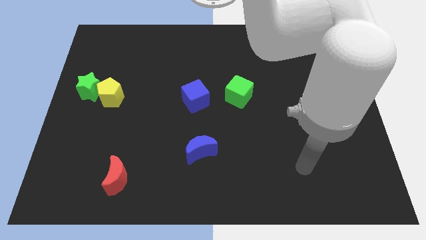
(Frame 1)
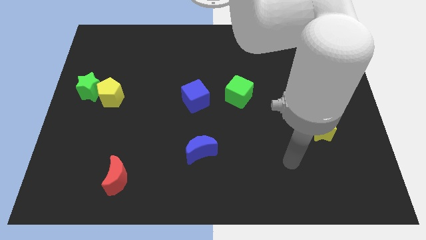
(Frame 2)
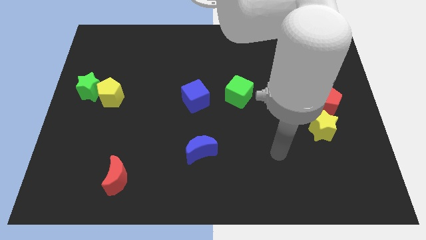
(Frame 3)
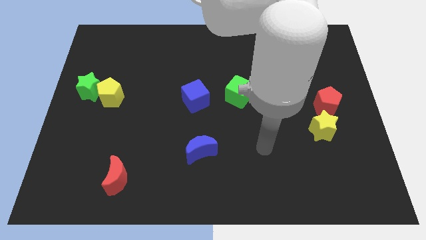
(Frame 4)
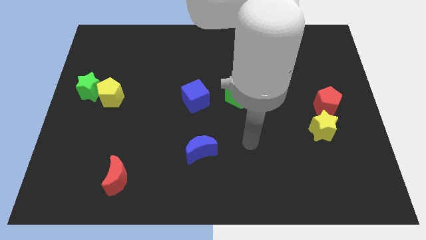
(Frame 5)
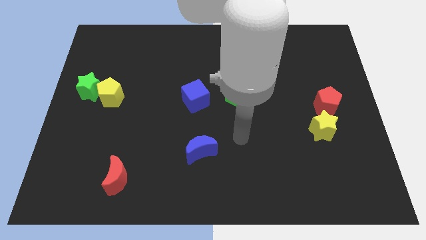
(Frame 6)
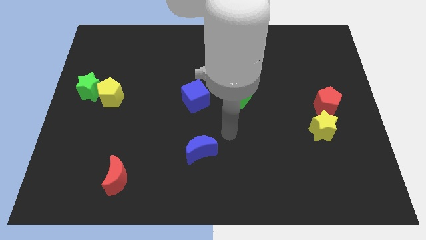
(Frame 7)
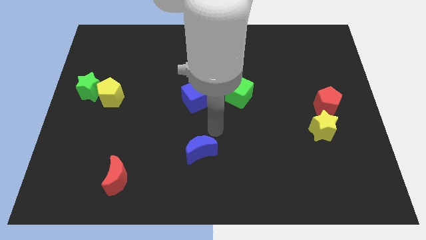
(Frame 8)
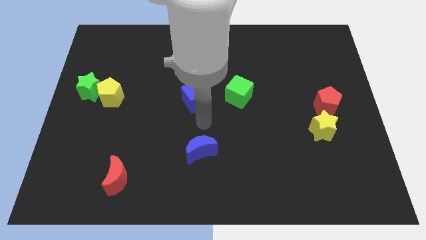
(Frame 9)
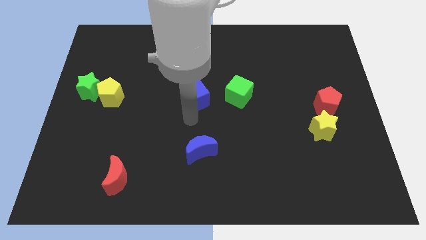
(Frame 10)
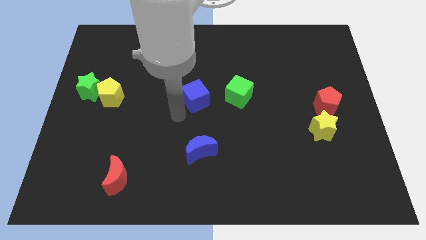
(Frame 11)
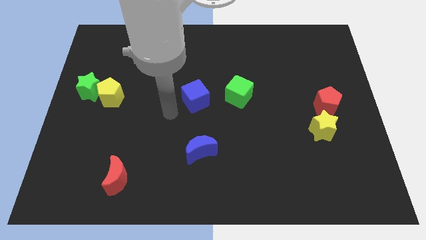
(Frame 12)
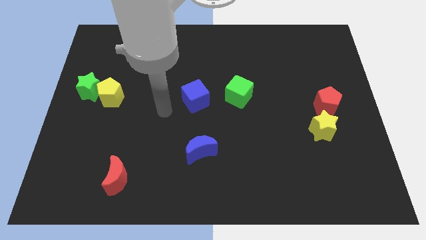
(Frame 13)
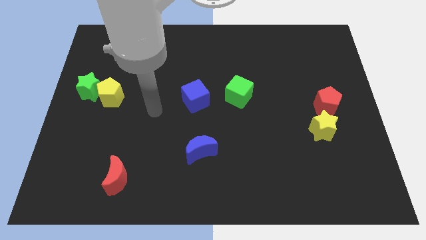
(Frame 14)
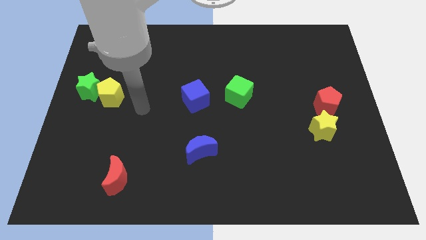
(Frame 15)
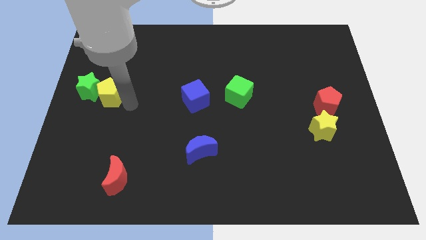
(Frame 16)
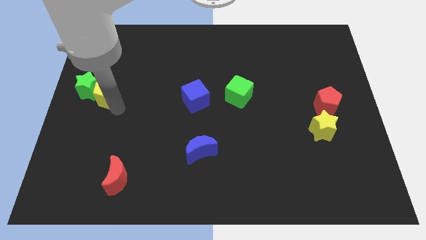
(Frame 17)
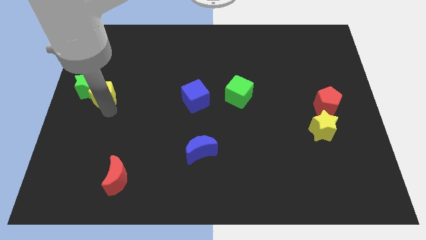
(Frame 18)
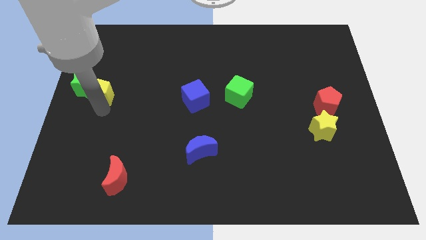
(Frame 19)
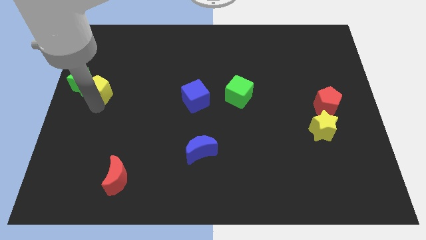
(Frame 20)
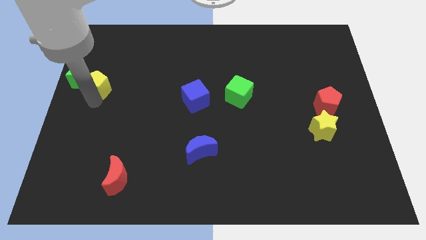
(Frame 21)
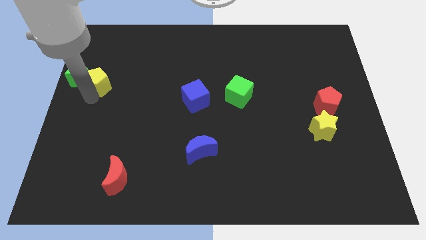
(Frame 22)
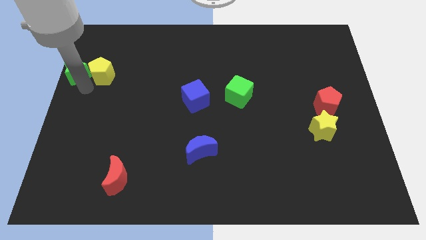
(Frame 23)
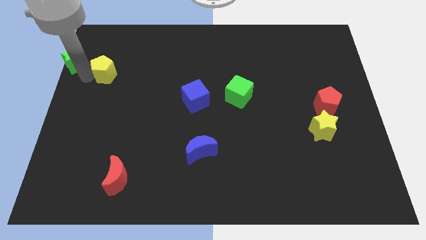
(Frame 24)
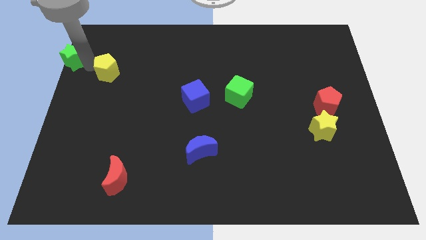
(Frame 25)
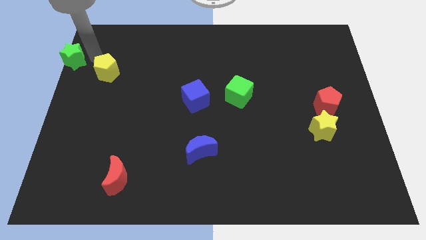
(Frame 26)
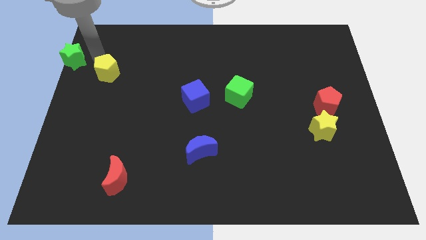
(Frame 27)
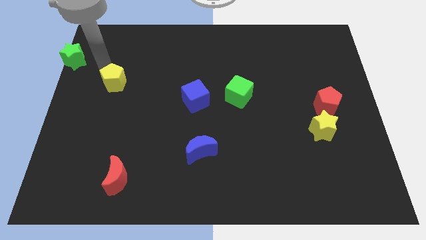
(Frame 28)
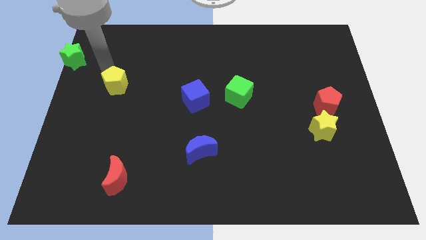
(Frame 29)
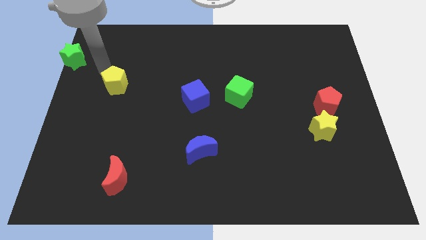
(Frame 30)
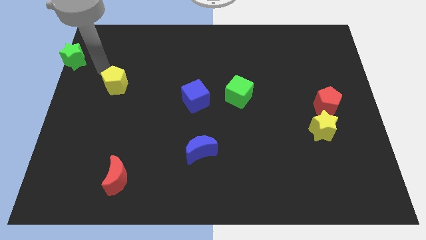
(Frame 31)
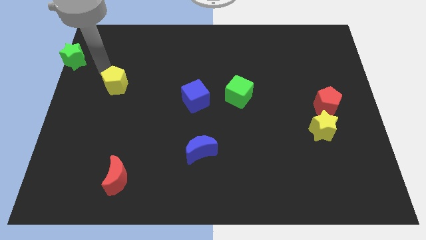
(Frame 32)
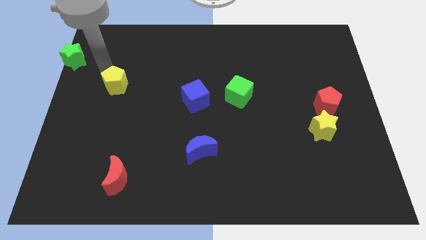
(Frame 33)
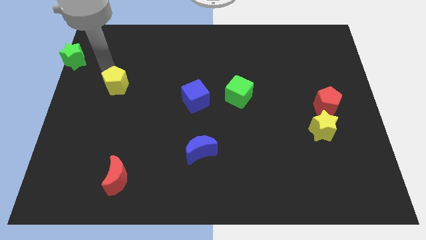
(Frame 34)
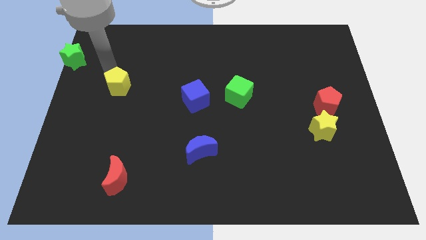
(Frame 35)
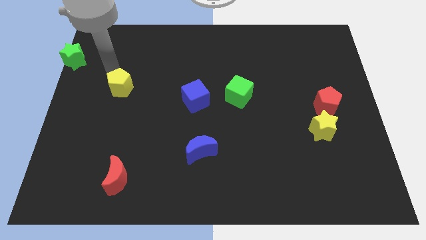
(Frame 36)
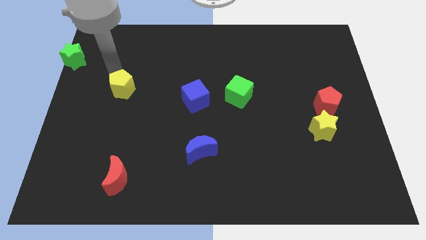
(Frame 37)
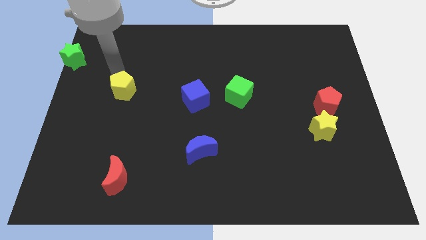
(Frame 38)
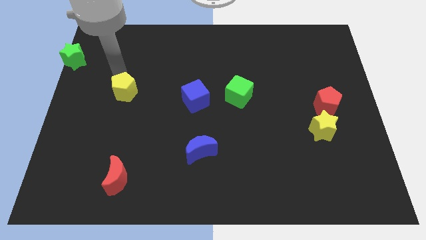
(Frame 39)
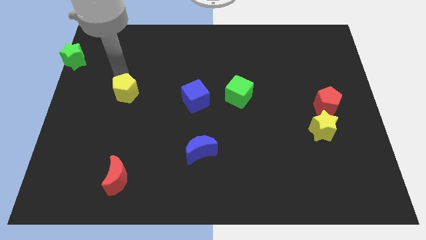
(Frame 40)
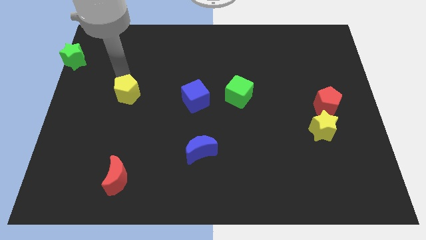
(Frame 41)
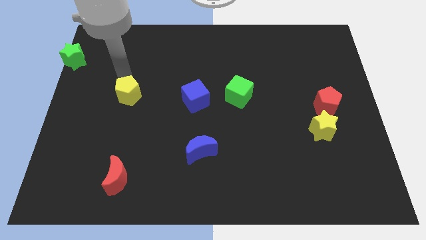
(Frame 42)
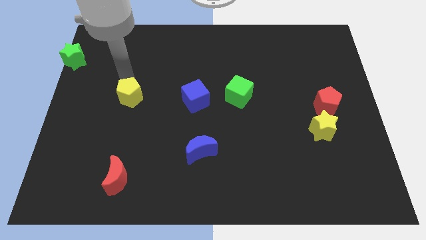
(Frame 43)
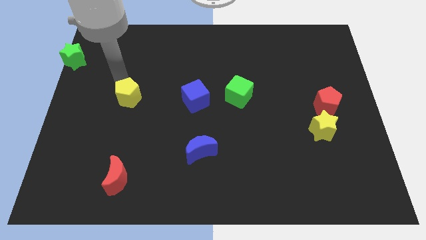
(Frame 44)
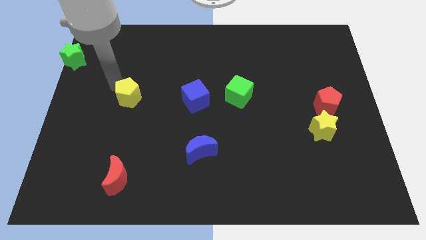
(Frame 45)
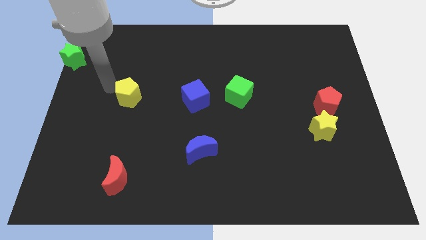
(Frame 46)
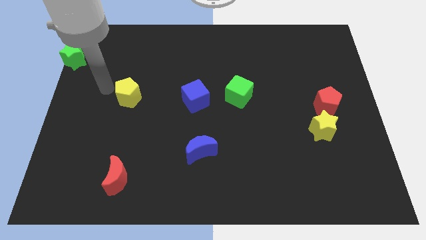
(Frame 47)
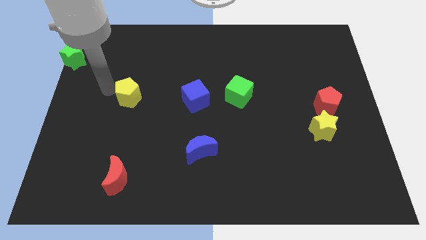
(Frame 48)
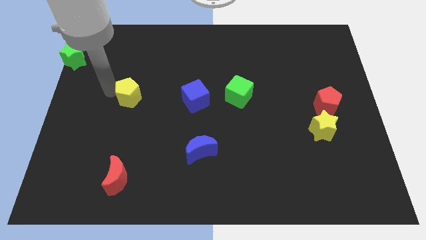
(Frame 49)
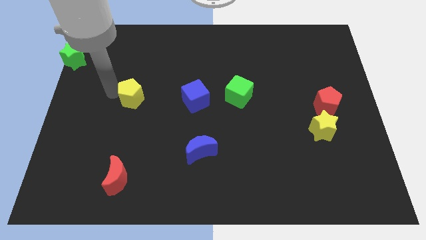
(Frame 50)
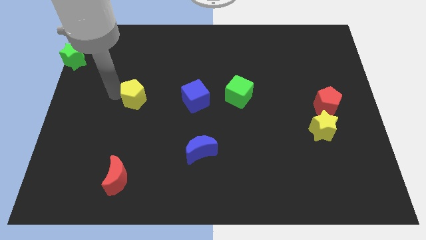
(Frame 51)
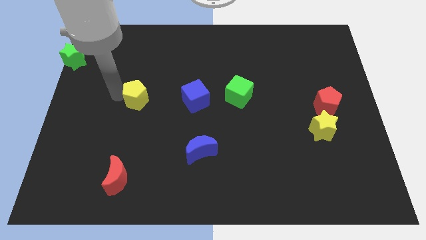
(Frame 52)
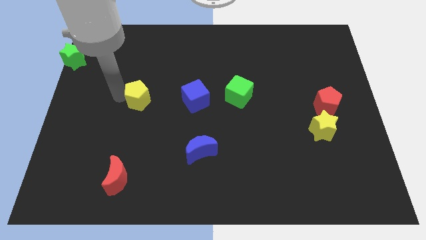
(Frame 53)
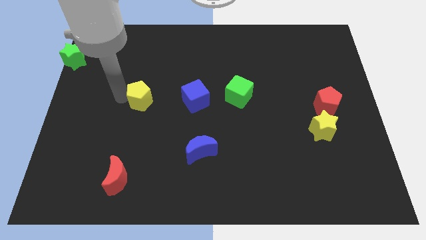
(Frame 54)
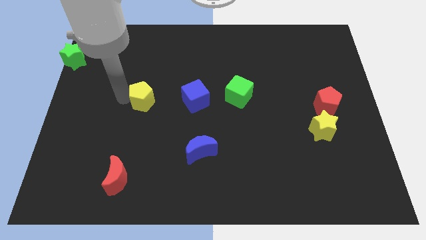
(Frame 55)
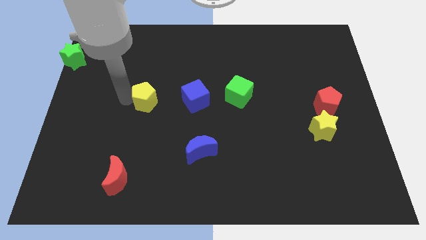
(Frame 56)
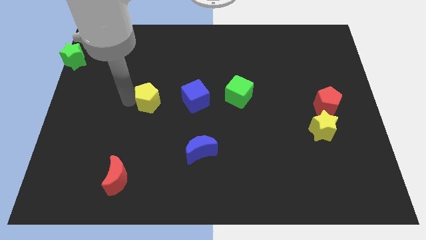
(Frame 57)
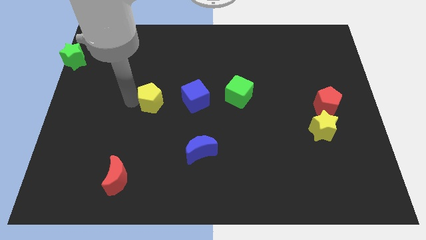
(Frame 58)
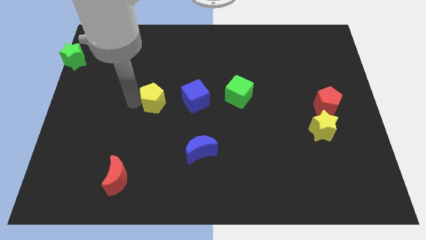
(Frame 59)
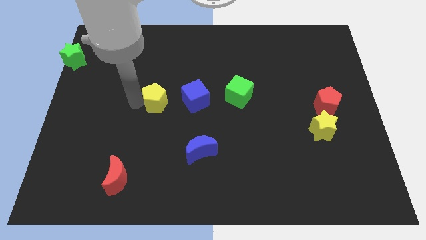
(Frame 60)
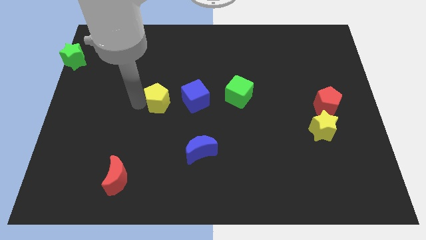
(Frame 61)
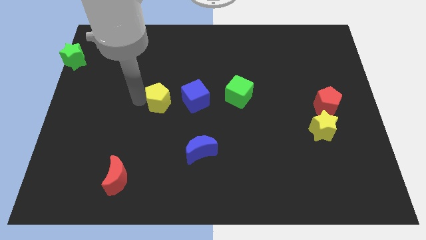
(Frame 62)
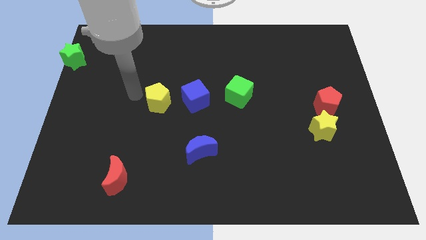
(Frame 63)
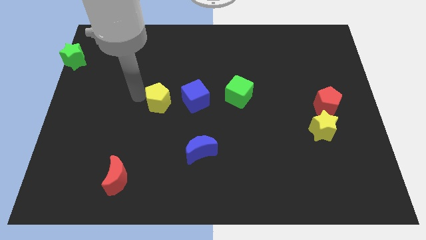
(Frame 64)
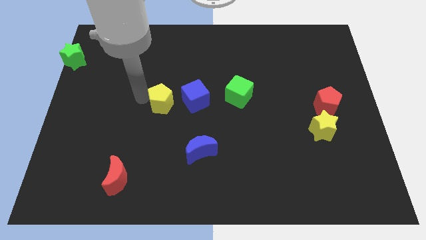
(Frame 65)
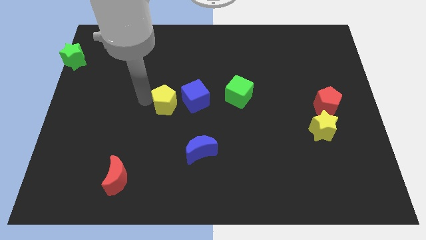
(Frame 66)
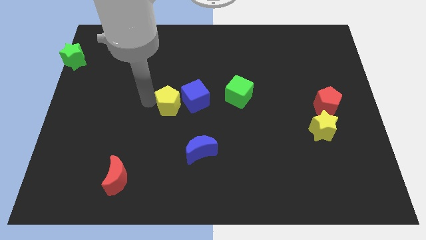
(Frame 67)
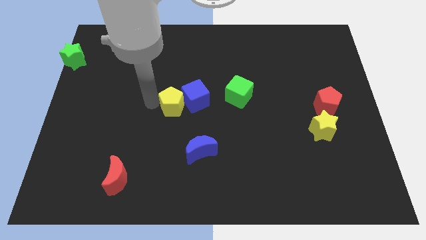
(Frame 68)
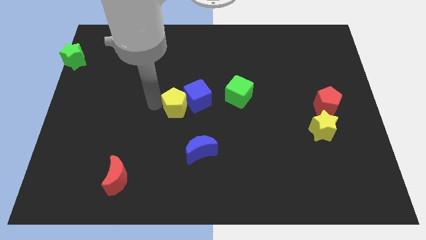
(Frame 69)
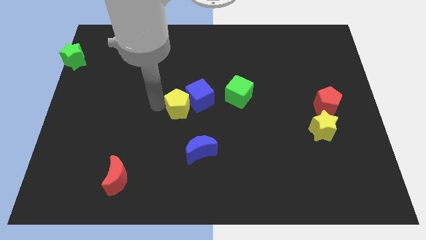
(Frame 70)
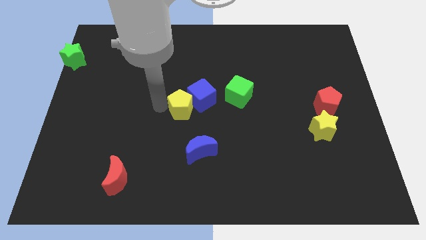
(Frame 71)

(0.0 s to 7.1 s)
push the yellow pentagon above the blue moon

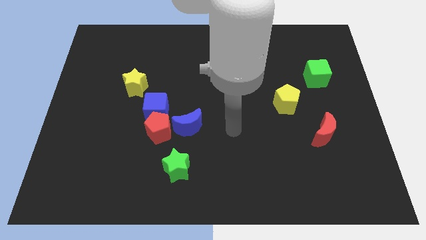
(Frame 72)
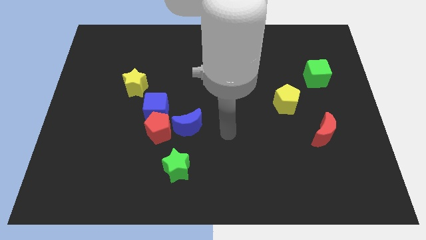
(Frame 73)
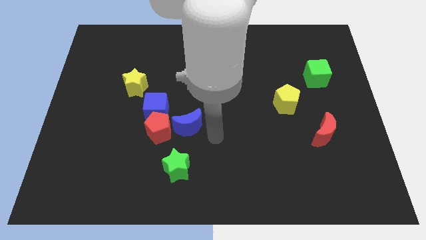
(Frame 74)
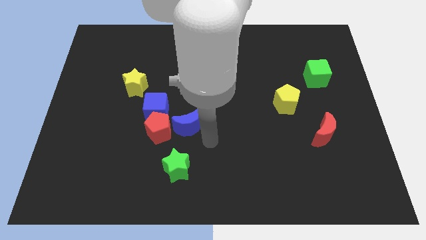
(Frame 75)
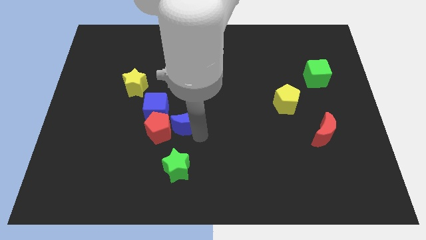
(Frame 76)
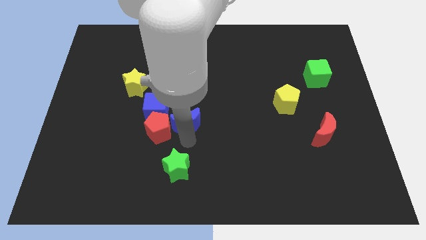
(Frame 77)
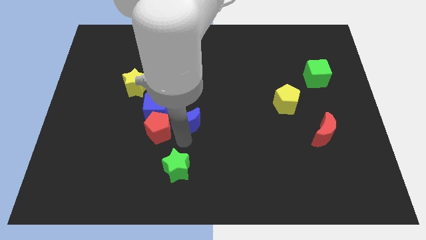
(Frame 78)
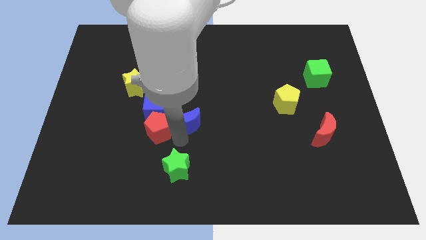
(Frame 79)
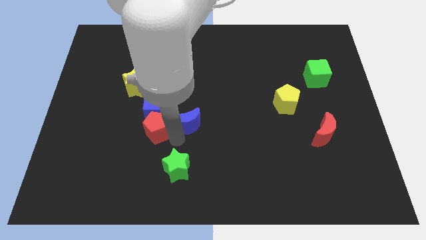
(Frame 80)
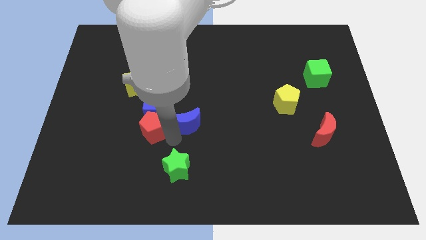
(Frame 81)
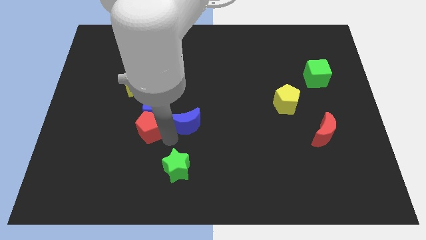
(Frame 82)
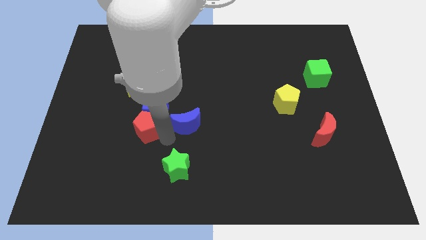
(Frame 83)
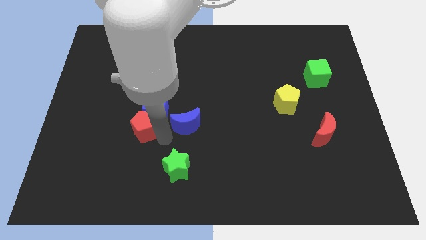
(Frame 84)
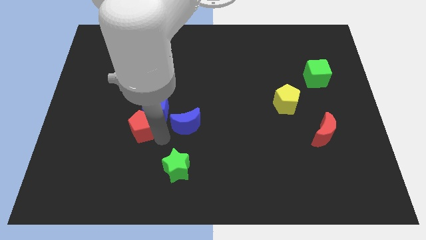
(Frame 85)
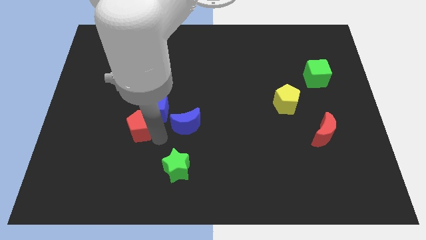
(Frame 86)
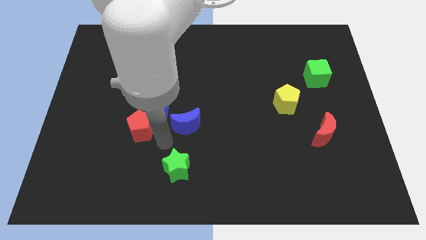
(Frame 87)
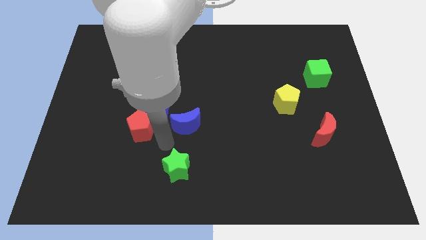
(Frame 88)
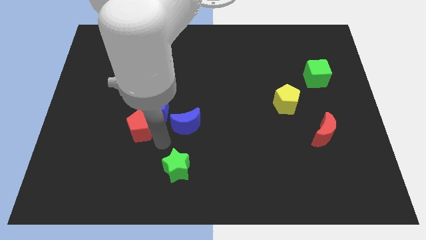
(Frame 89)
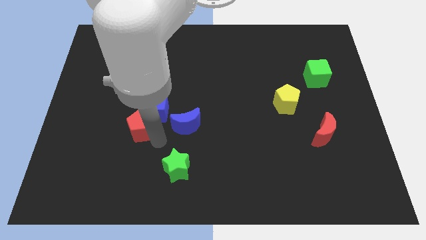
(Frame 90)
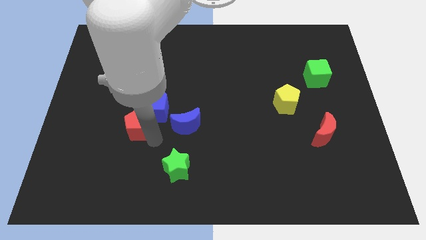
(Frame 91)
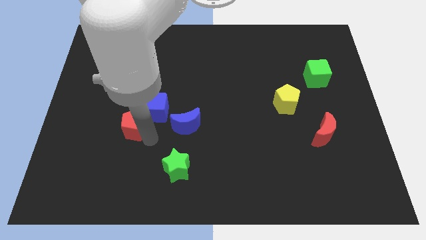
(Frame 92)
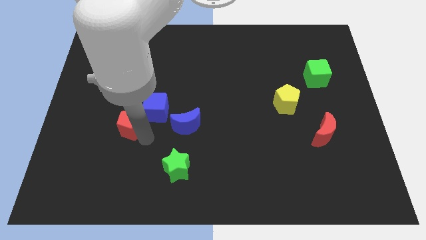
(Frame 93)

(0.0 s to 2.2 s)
put the red pentagon left of the blue cube
